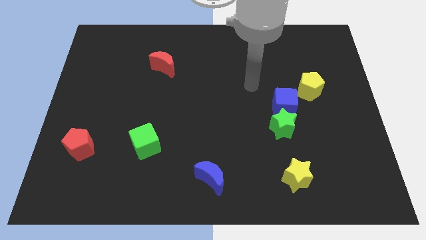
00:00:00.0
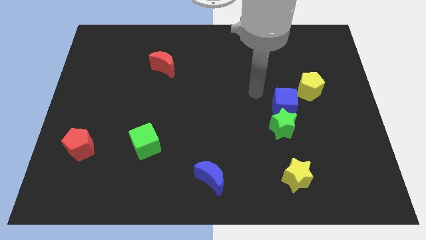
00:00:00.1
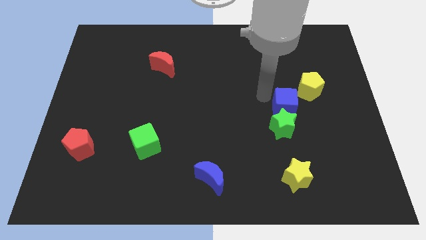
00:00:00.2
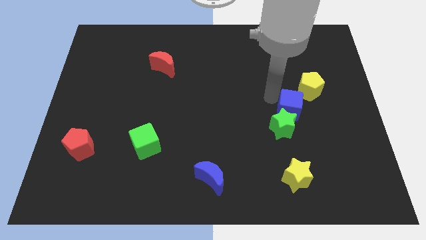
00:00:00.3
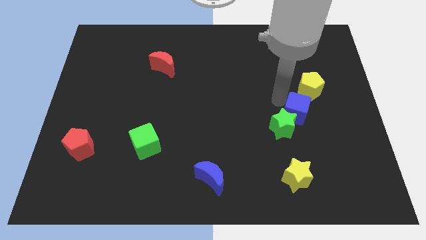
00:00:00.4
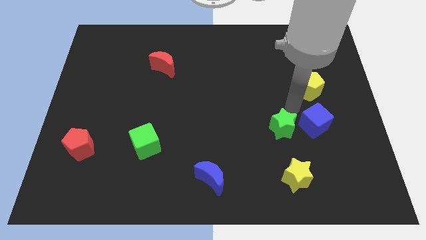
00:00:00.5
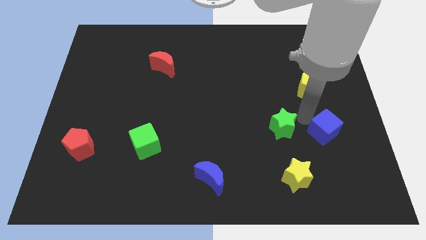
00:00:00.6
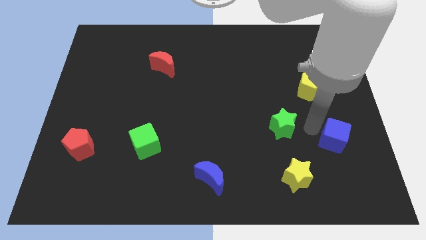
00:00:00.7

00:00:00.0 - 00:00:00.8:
pull the green star apart from the blue cube

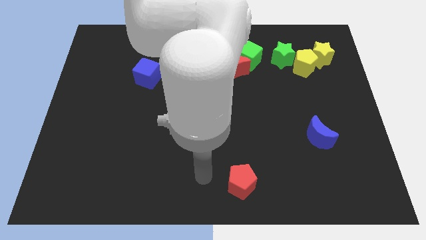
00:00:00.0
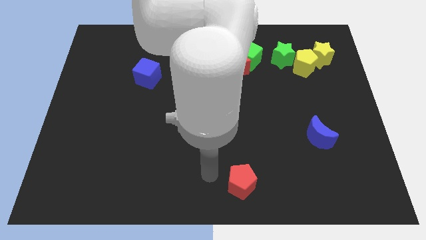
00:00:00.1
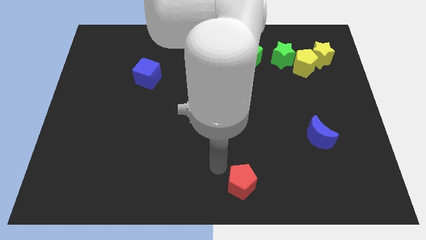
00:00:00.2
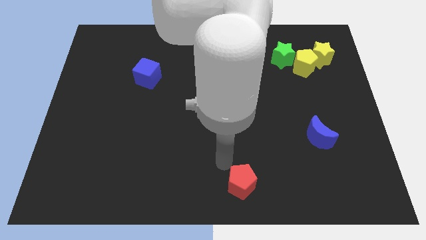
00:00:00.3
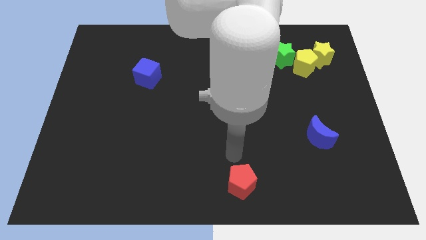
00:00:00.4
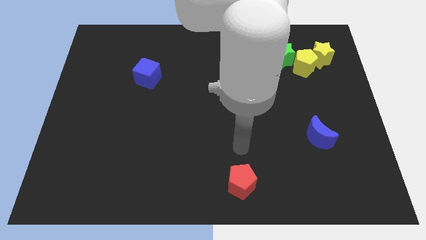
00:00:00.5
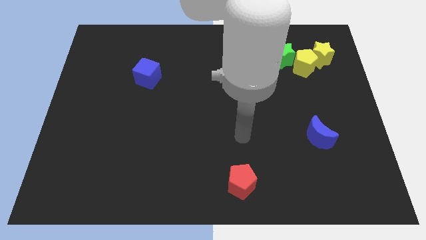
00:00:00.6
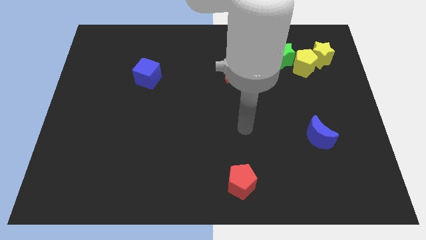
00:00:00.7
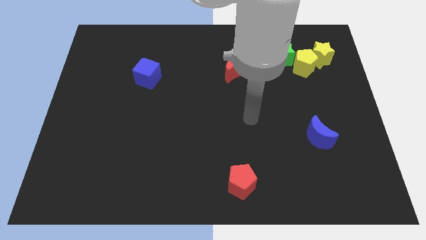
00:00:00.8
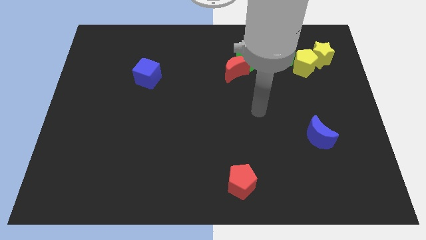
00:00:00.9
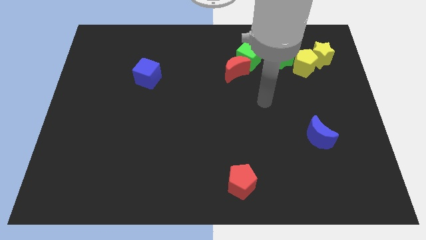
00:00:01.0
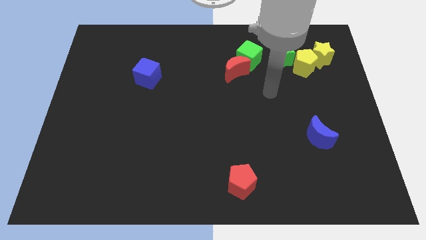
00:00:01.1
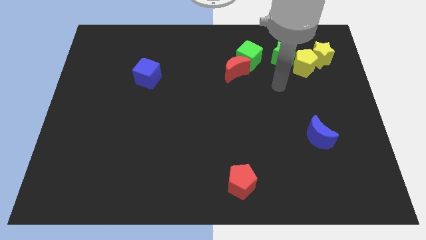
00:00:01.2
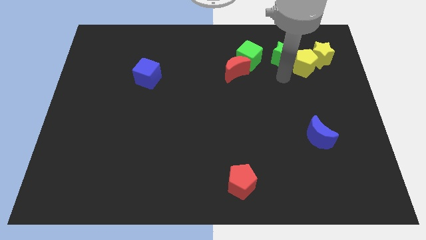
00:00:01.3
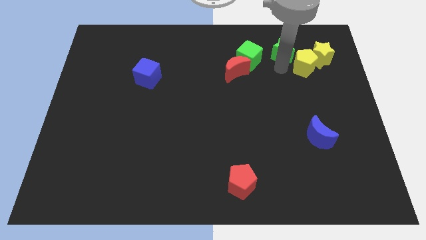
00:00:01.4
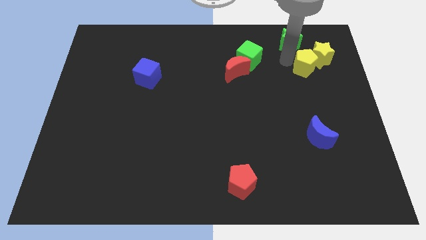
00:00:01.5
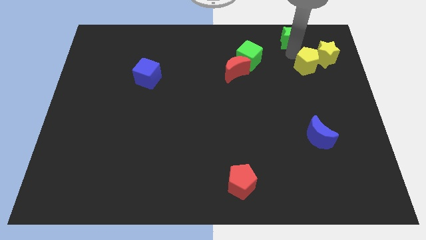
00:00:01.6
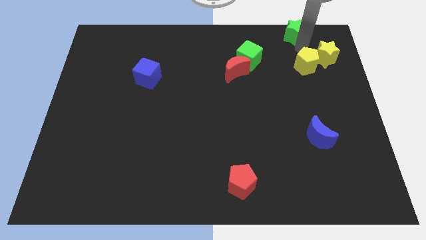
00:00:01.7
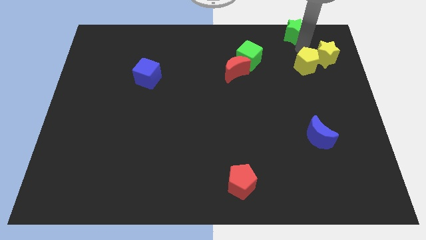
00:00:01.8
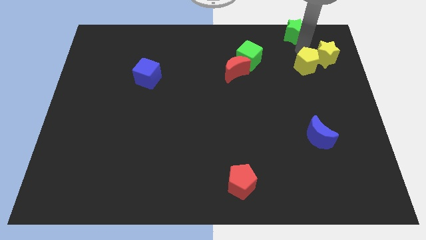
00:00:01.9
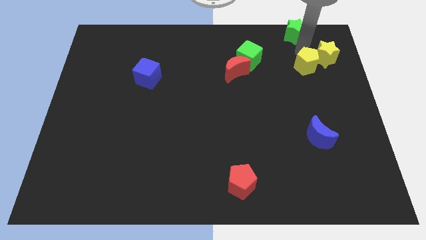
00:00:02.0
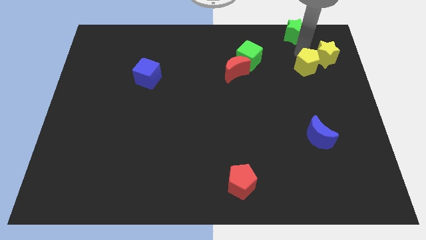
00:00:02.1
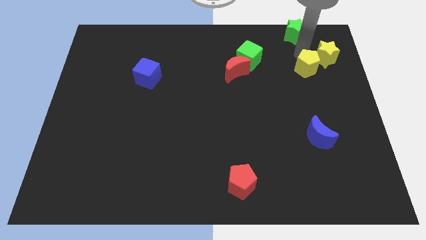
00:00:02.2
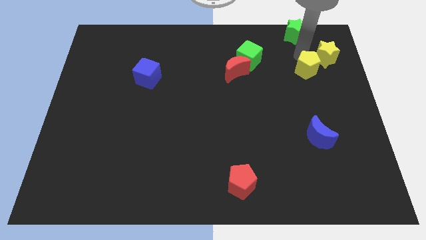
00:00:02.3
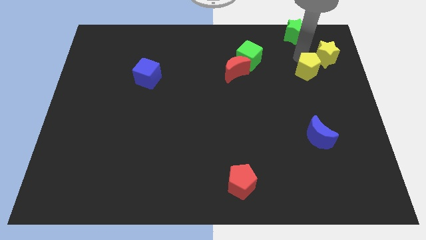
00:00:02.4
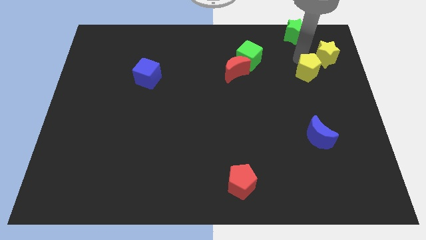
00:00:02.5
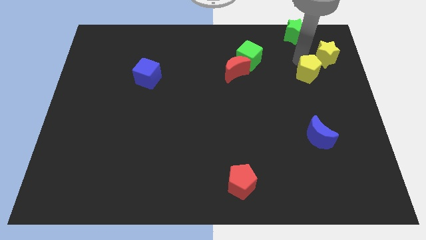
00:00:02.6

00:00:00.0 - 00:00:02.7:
move the yellow pentagon away from the yellow star and green star

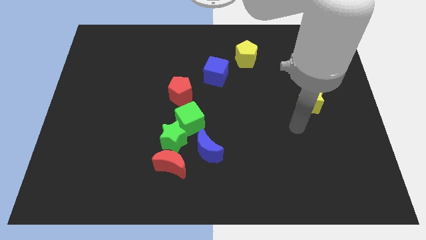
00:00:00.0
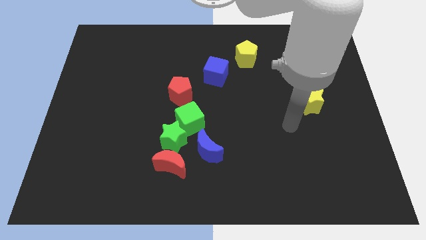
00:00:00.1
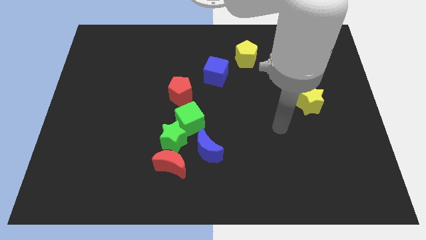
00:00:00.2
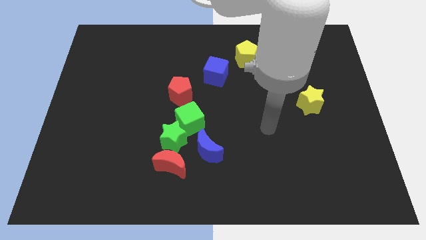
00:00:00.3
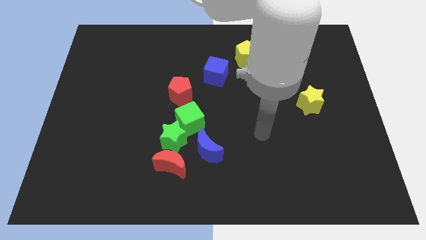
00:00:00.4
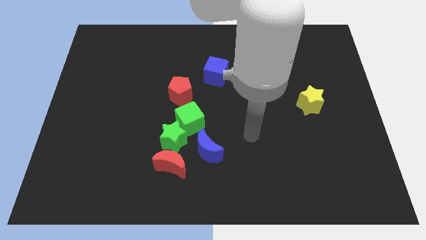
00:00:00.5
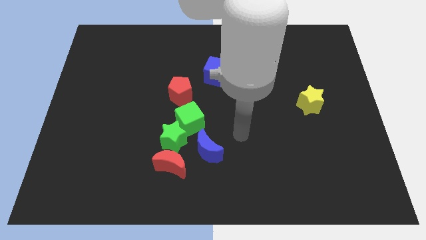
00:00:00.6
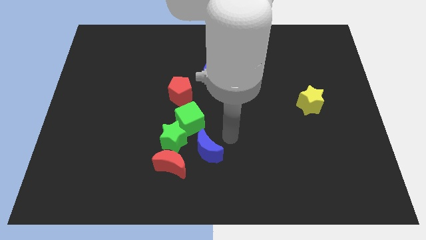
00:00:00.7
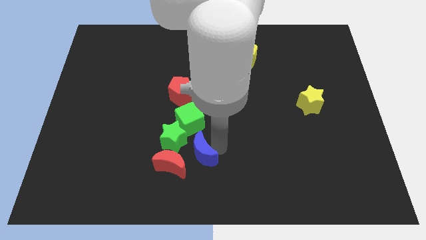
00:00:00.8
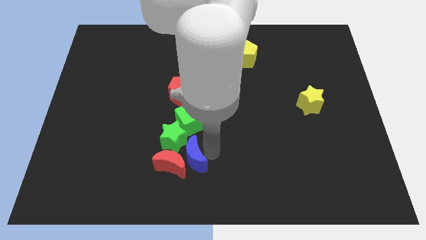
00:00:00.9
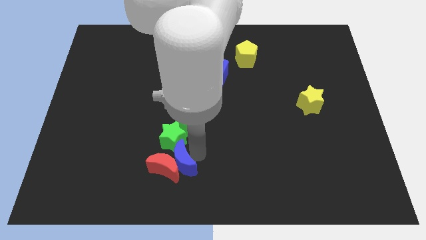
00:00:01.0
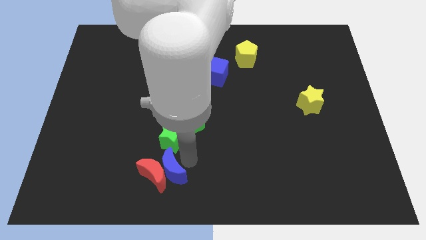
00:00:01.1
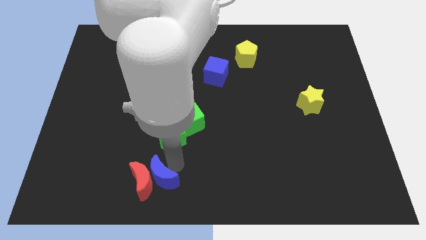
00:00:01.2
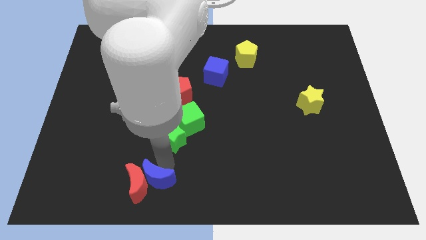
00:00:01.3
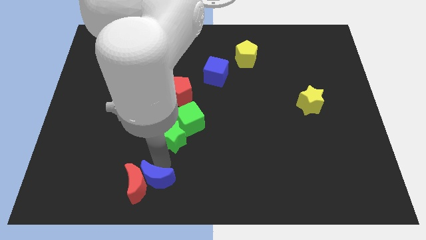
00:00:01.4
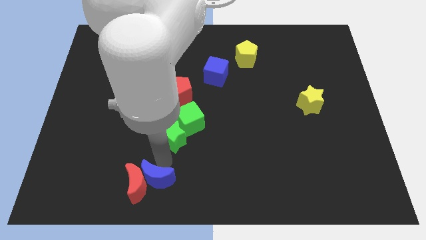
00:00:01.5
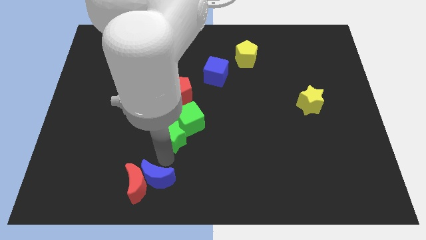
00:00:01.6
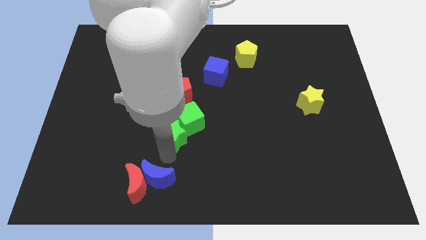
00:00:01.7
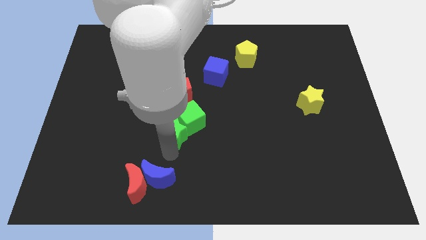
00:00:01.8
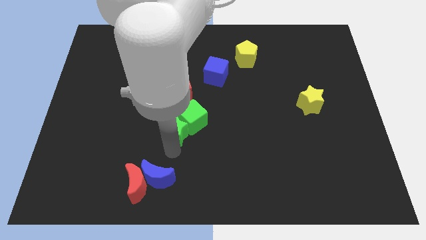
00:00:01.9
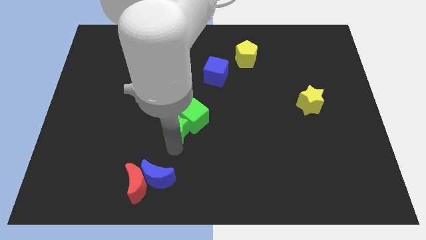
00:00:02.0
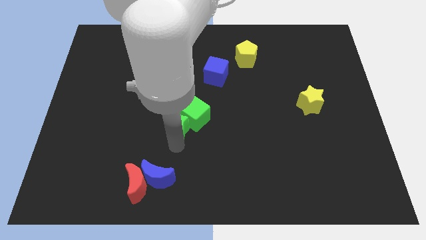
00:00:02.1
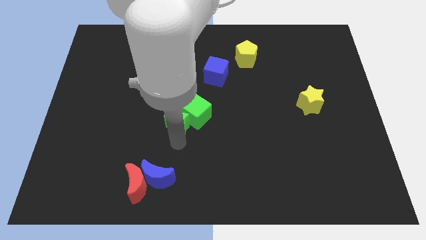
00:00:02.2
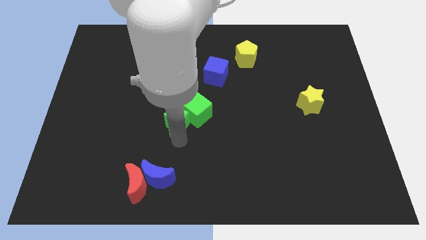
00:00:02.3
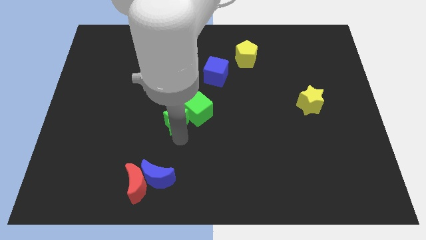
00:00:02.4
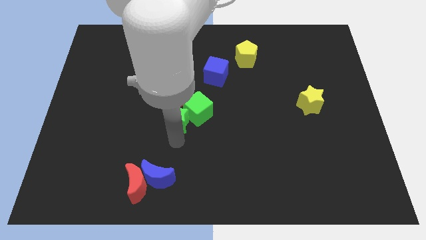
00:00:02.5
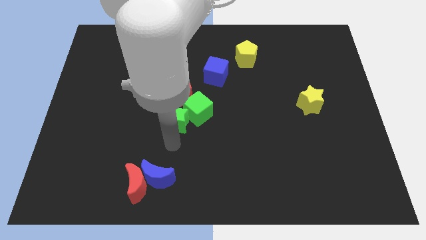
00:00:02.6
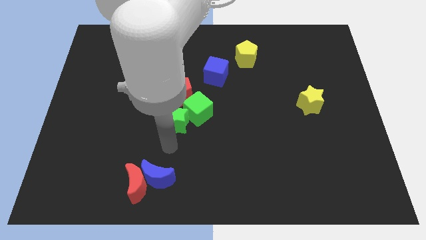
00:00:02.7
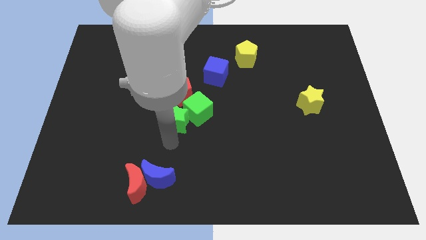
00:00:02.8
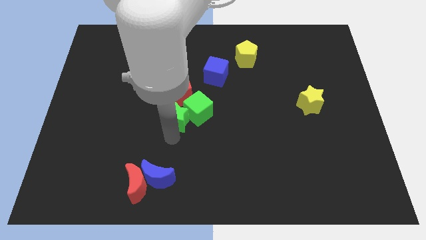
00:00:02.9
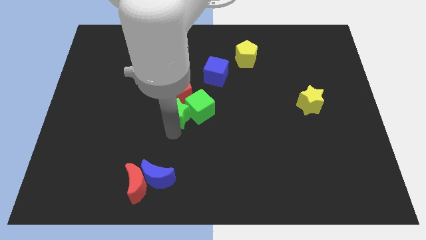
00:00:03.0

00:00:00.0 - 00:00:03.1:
move the green star away from the green cube, red moon, and blue moon

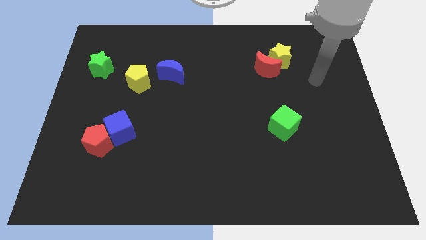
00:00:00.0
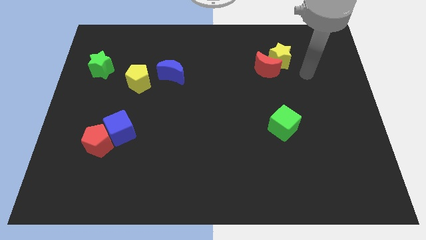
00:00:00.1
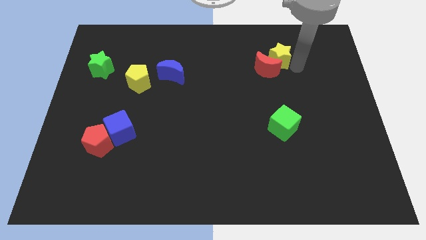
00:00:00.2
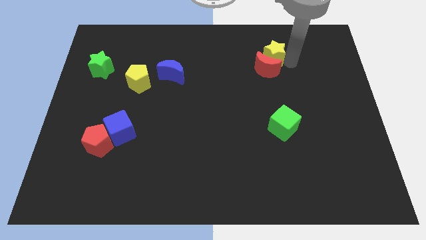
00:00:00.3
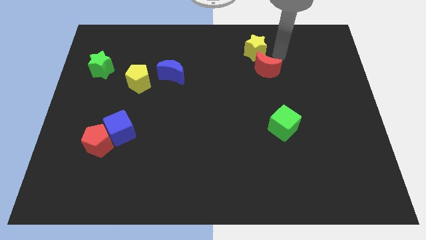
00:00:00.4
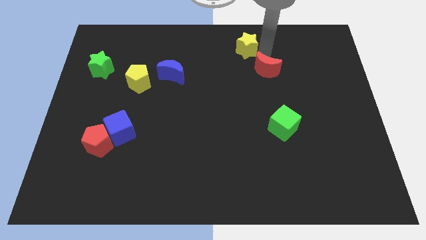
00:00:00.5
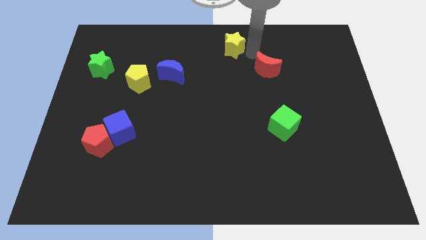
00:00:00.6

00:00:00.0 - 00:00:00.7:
pull the red moon apart from the yellow star

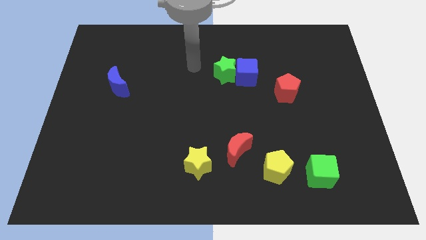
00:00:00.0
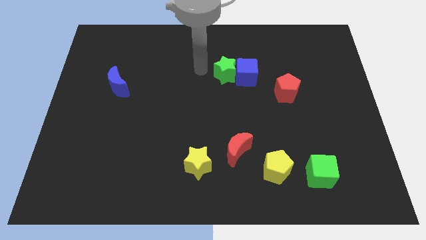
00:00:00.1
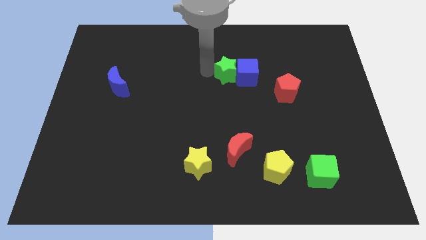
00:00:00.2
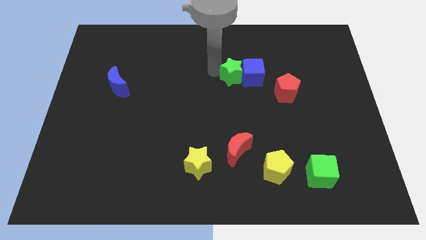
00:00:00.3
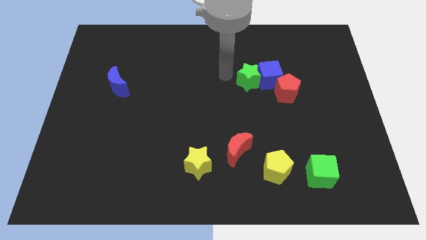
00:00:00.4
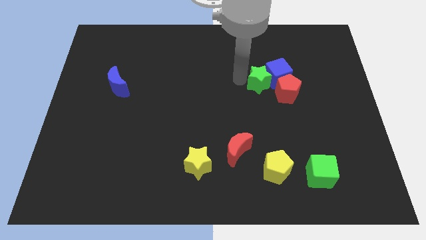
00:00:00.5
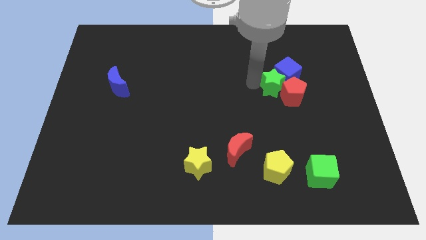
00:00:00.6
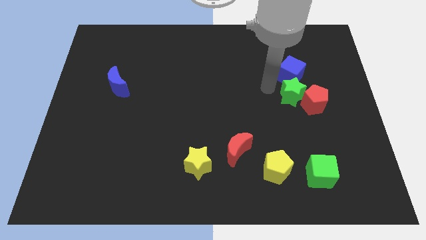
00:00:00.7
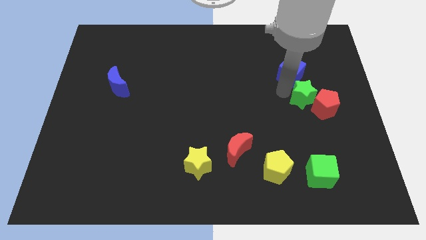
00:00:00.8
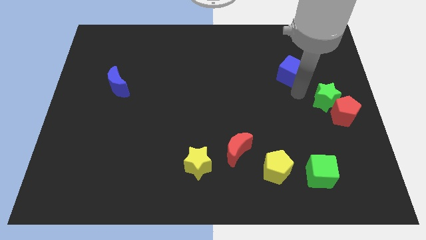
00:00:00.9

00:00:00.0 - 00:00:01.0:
pull the blue cube apart from the green star

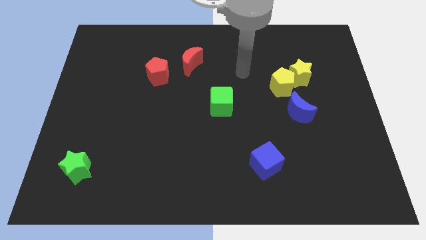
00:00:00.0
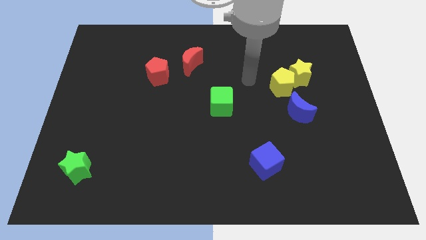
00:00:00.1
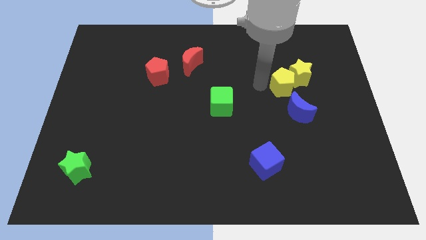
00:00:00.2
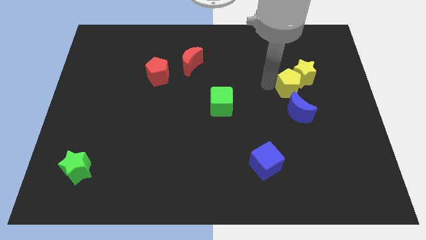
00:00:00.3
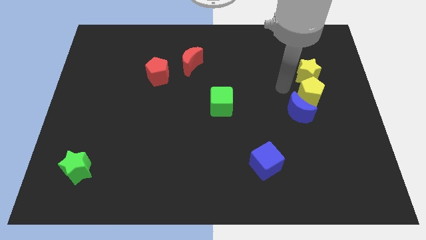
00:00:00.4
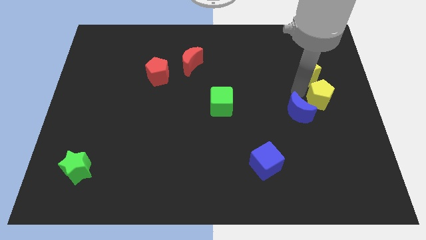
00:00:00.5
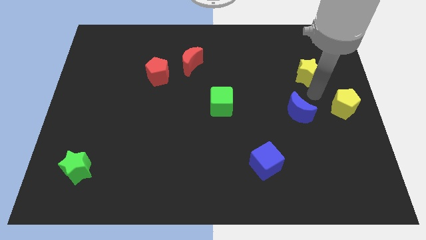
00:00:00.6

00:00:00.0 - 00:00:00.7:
move the yellow star away from the yellow pentagon

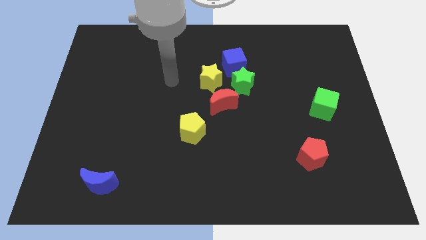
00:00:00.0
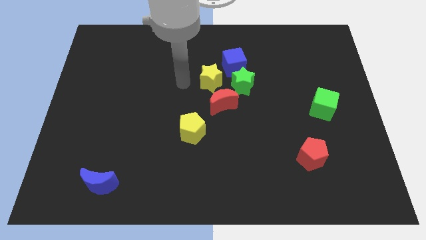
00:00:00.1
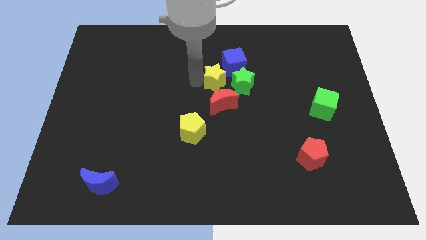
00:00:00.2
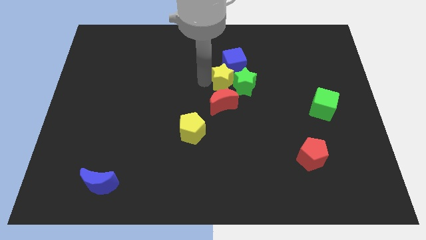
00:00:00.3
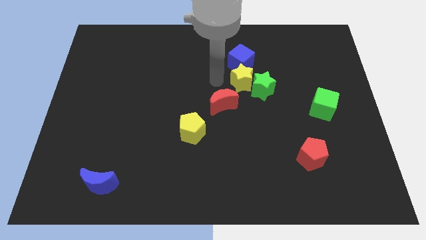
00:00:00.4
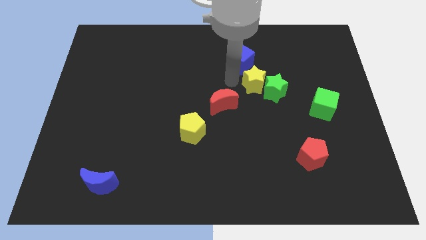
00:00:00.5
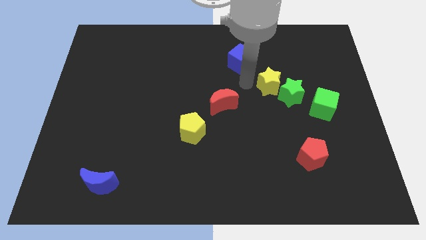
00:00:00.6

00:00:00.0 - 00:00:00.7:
move the green star away from the blue cube, yellow star, and red moon
